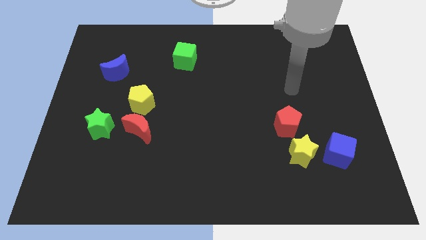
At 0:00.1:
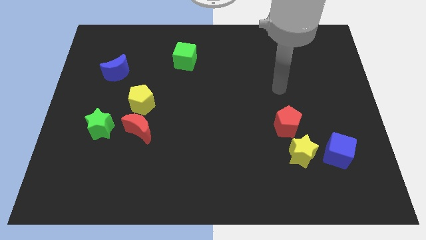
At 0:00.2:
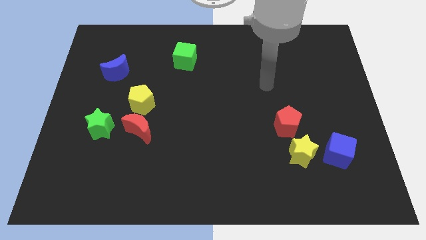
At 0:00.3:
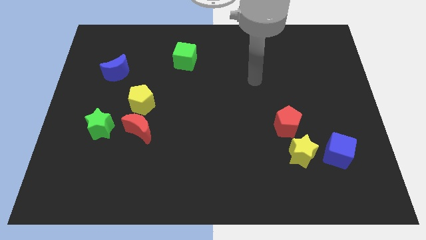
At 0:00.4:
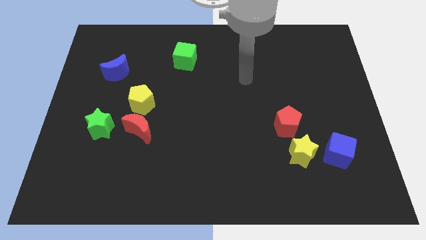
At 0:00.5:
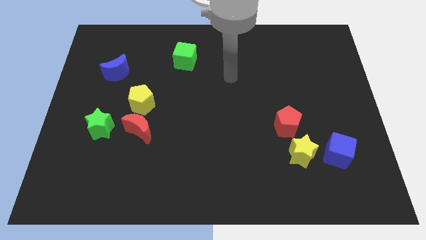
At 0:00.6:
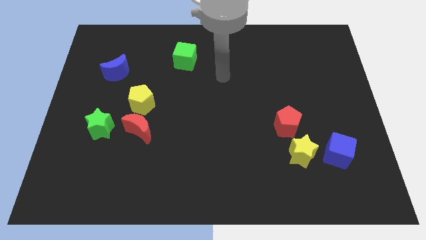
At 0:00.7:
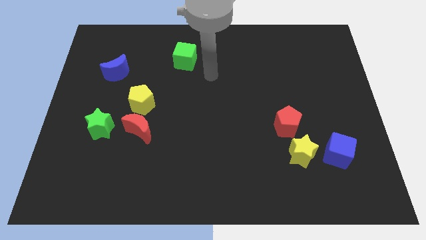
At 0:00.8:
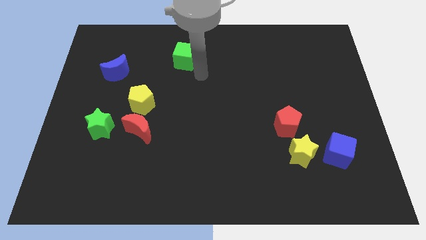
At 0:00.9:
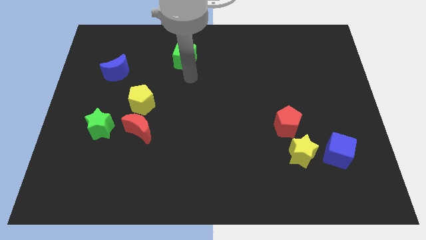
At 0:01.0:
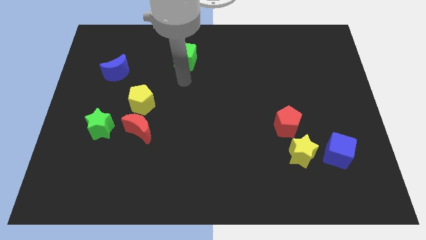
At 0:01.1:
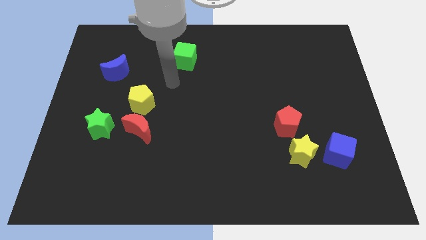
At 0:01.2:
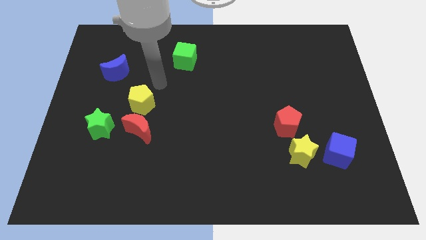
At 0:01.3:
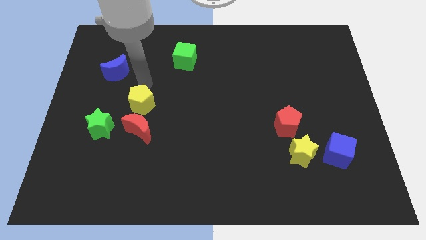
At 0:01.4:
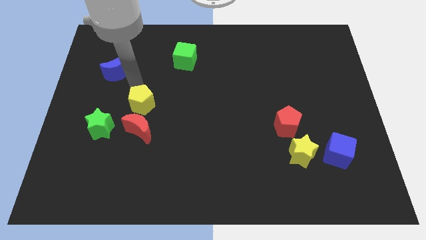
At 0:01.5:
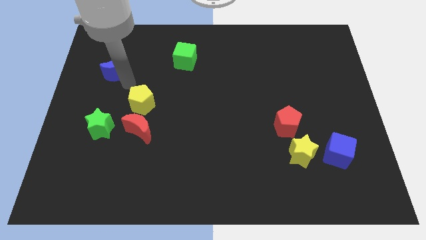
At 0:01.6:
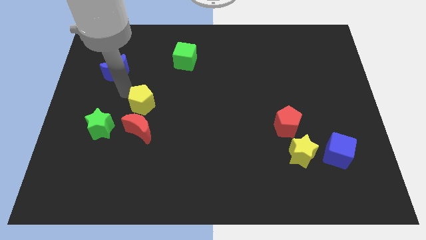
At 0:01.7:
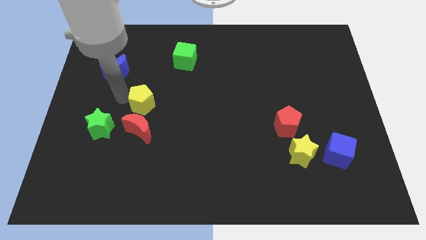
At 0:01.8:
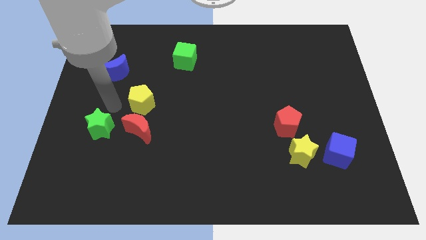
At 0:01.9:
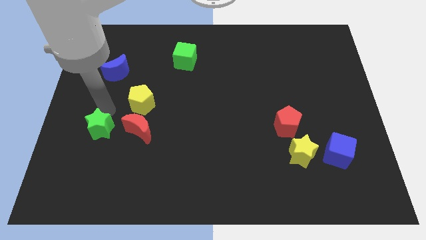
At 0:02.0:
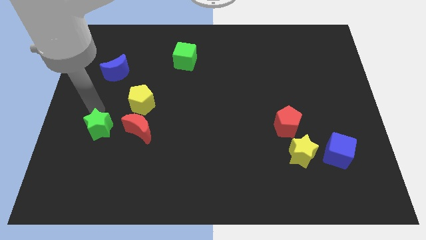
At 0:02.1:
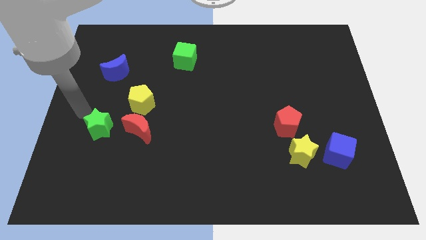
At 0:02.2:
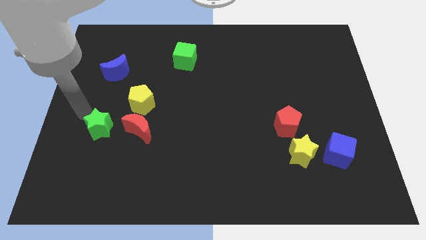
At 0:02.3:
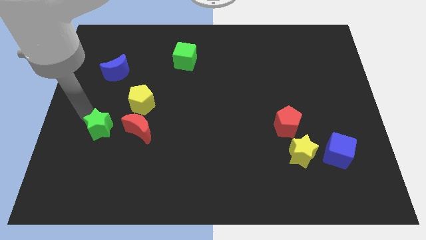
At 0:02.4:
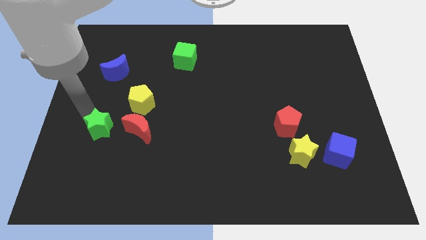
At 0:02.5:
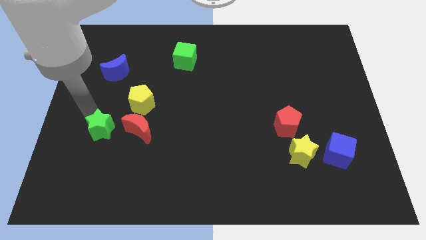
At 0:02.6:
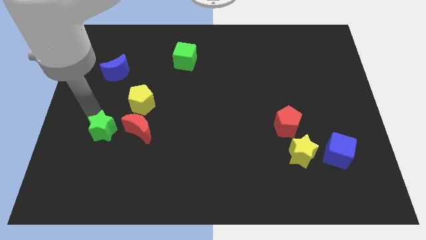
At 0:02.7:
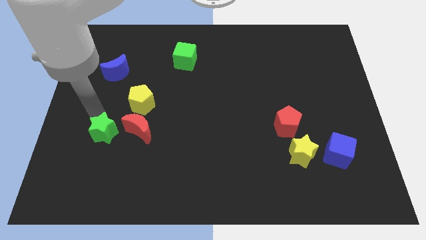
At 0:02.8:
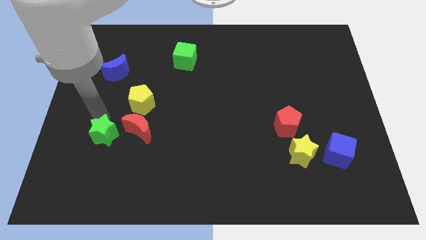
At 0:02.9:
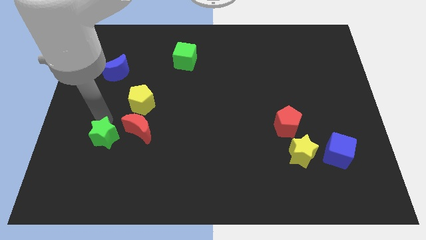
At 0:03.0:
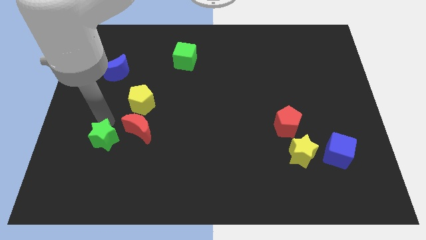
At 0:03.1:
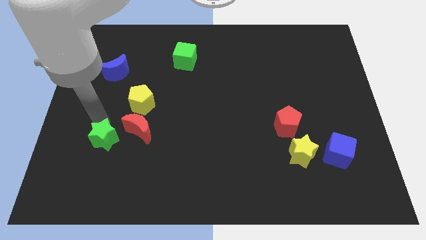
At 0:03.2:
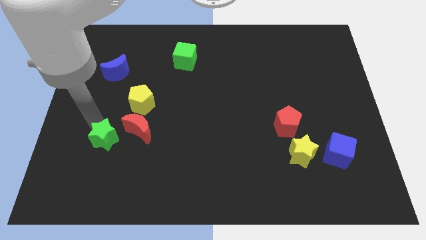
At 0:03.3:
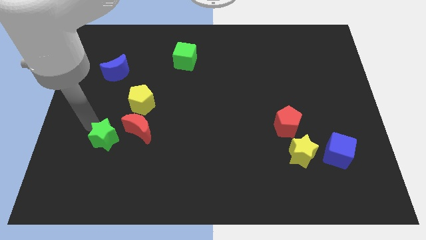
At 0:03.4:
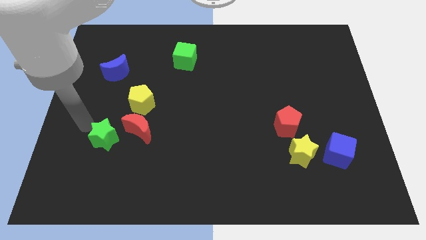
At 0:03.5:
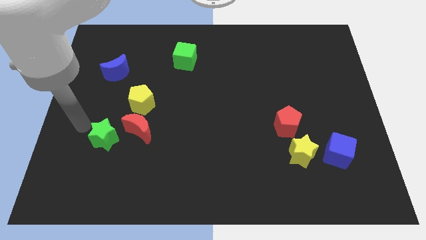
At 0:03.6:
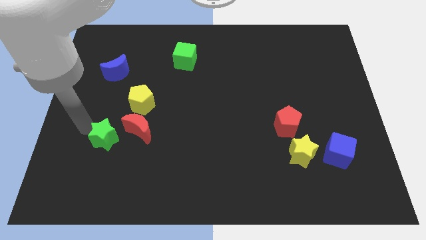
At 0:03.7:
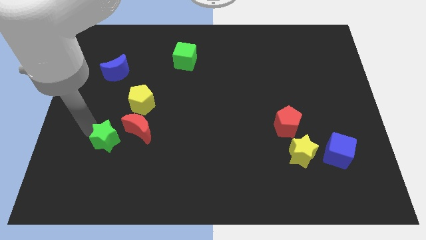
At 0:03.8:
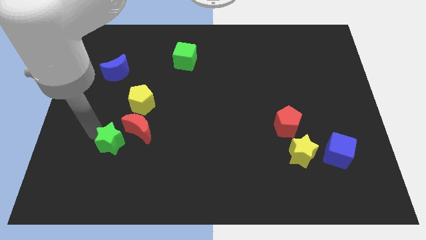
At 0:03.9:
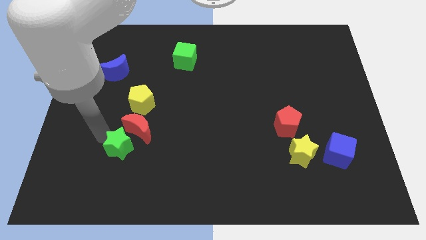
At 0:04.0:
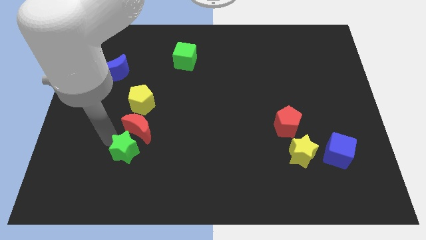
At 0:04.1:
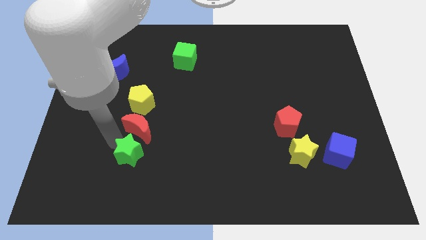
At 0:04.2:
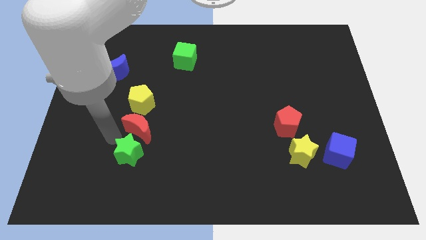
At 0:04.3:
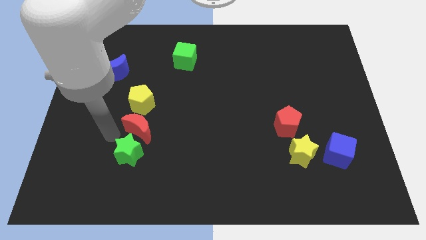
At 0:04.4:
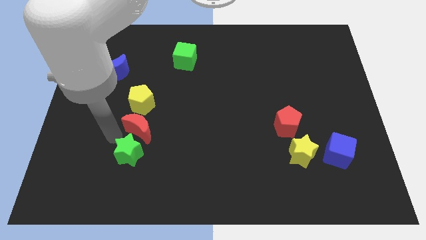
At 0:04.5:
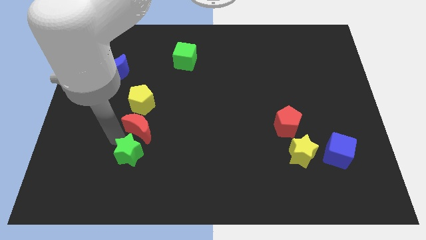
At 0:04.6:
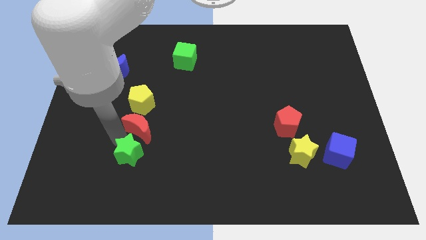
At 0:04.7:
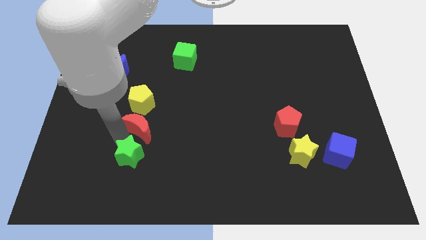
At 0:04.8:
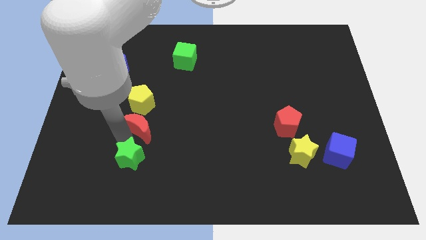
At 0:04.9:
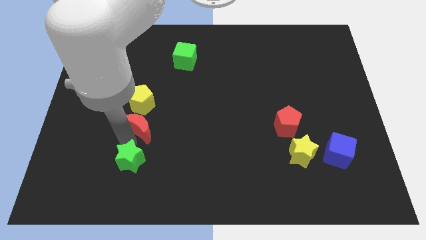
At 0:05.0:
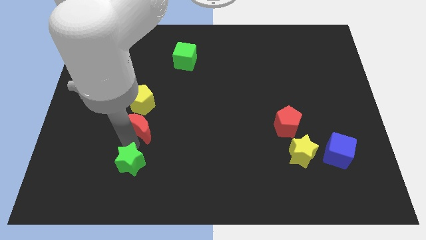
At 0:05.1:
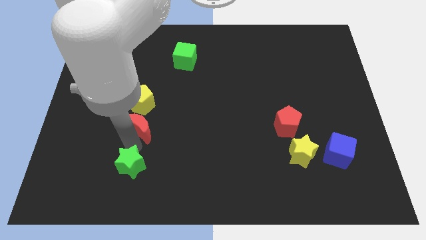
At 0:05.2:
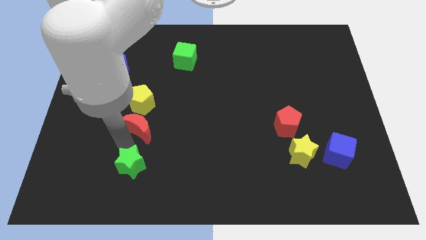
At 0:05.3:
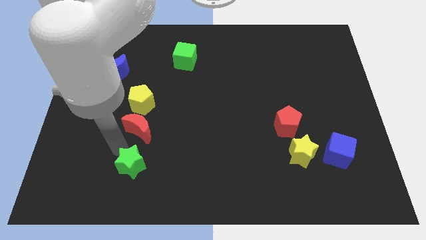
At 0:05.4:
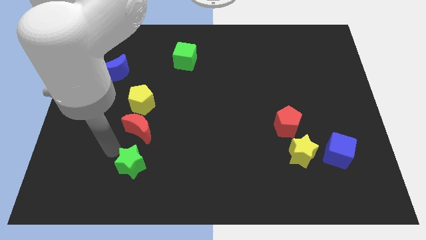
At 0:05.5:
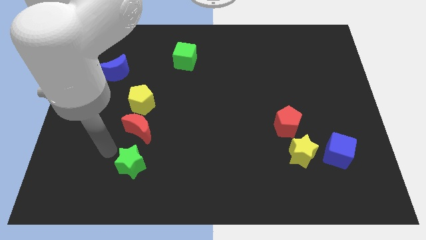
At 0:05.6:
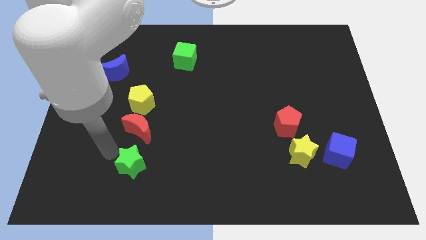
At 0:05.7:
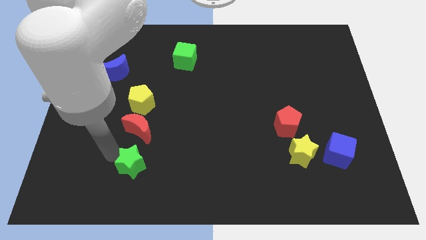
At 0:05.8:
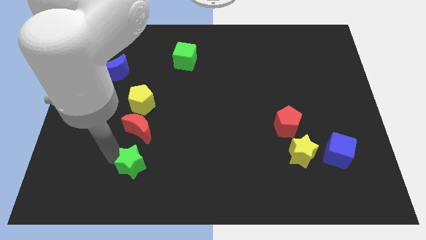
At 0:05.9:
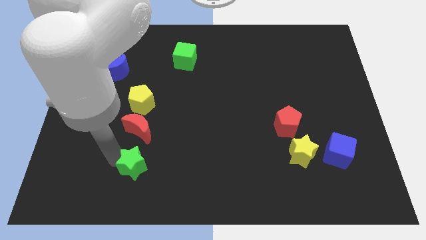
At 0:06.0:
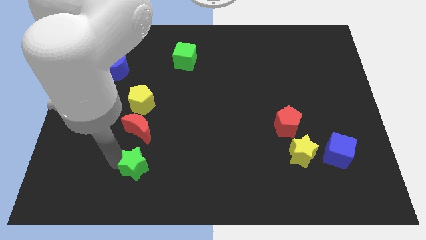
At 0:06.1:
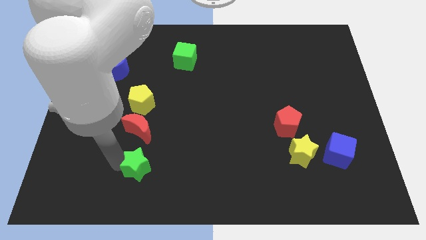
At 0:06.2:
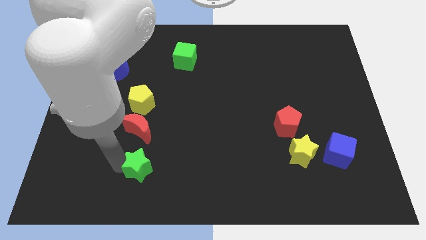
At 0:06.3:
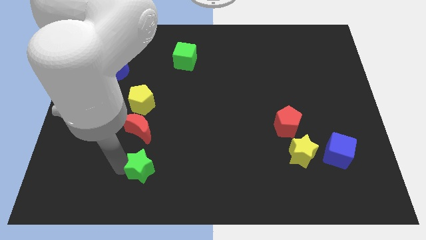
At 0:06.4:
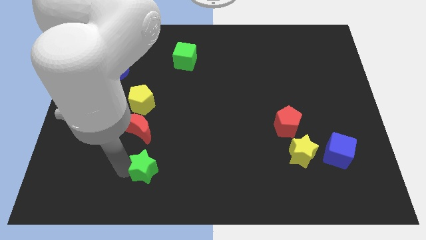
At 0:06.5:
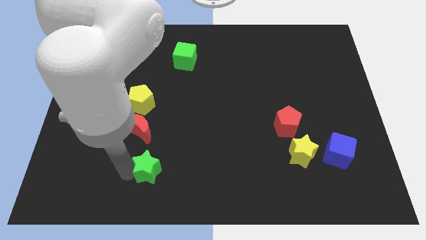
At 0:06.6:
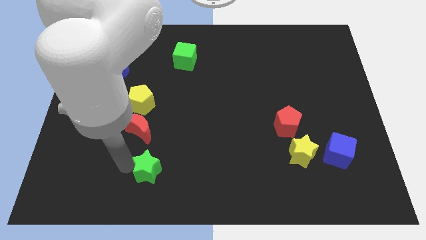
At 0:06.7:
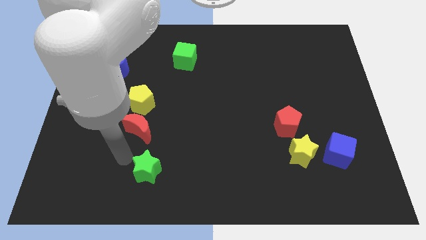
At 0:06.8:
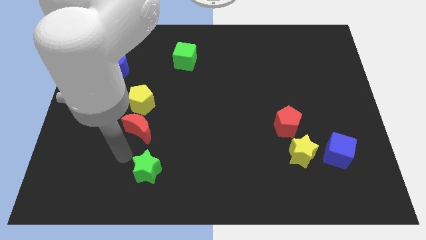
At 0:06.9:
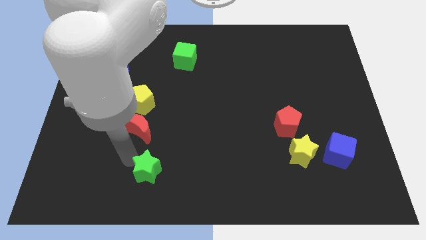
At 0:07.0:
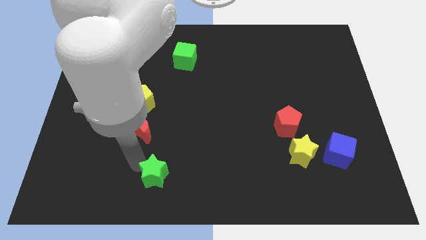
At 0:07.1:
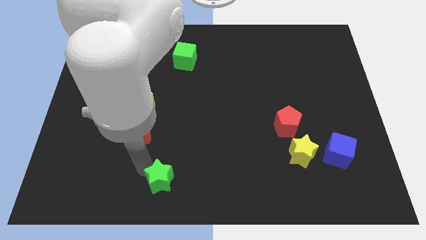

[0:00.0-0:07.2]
move the green star to the bottom
